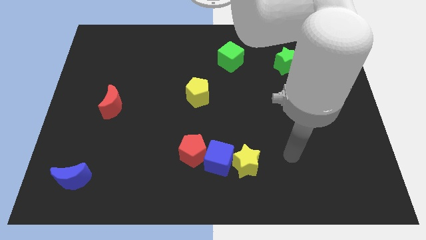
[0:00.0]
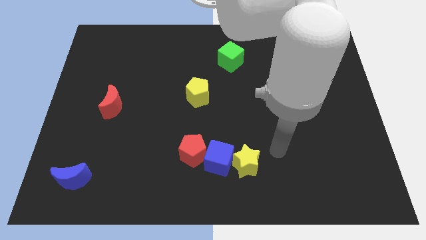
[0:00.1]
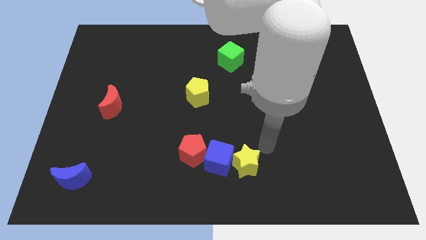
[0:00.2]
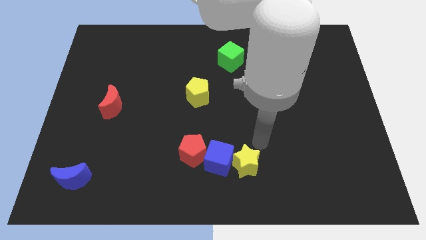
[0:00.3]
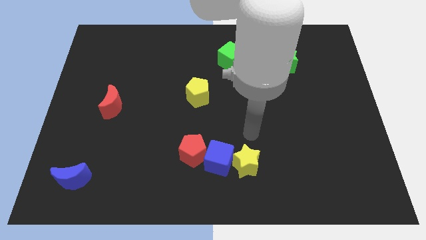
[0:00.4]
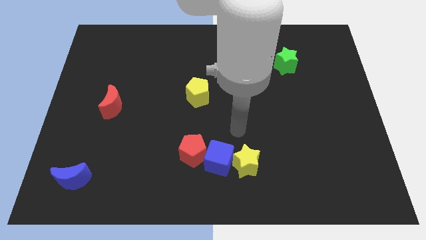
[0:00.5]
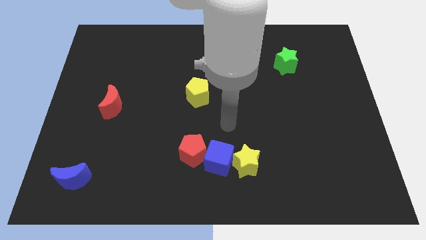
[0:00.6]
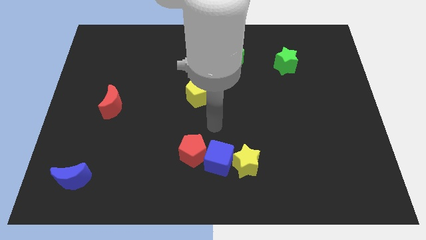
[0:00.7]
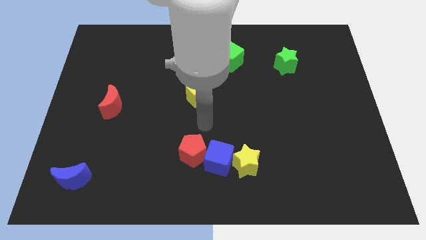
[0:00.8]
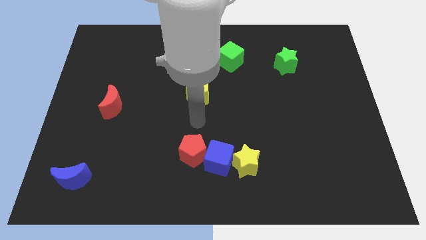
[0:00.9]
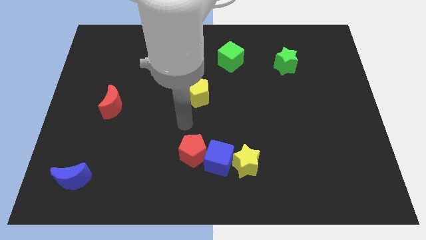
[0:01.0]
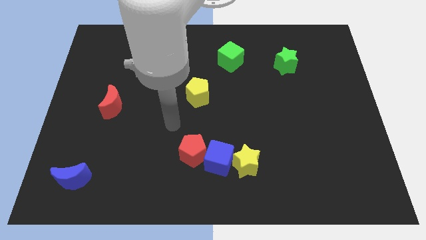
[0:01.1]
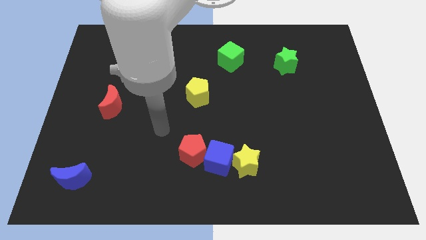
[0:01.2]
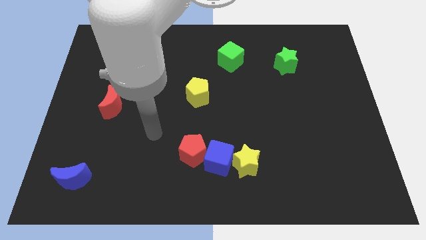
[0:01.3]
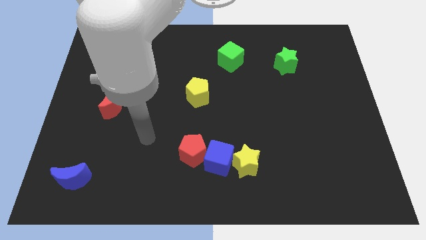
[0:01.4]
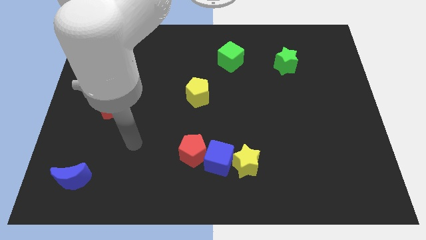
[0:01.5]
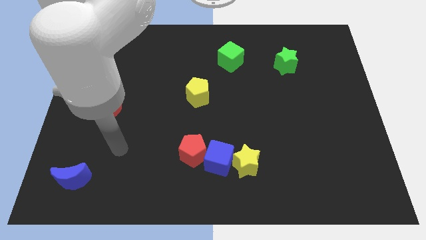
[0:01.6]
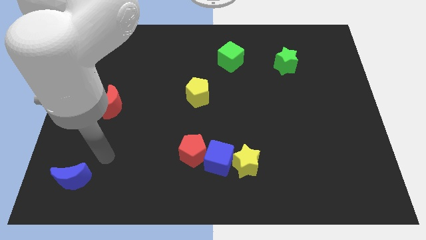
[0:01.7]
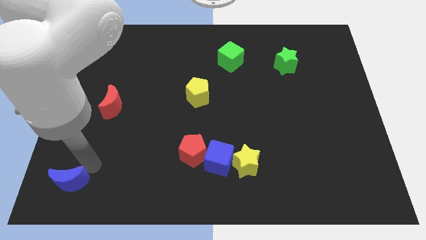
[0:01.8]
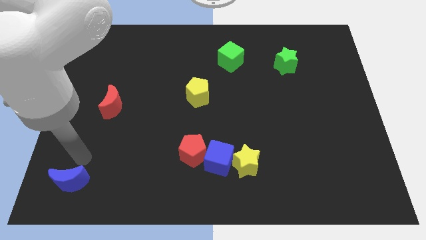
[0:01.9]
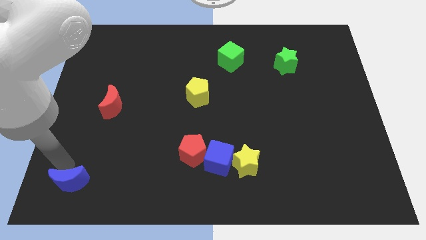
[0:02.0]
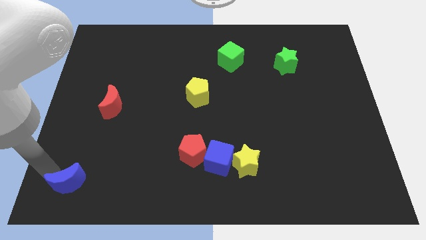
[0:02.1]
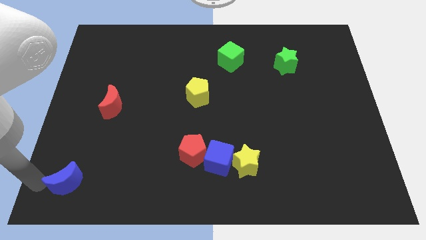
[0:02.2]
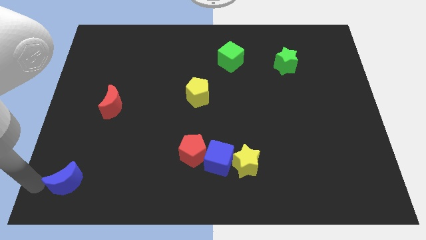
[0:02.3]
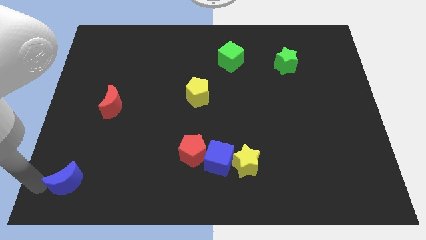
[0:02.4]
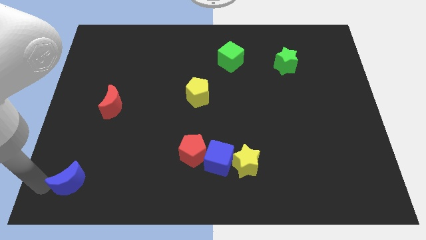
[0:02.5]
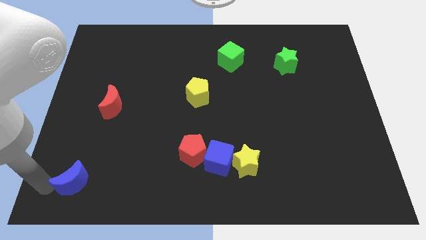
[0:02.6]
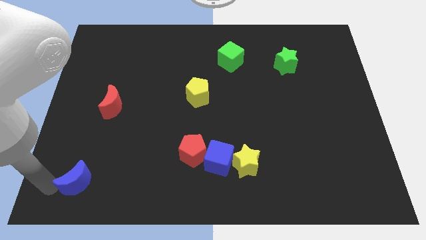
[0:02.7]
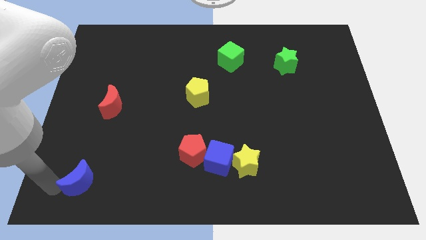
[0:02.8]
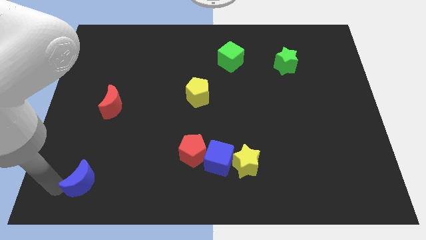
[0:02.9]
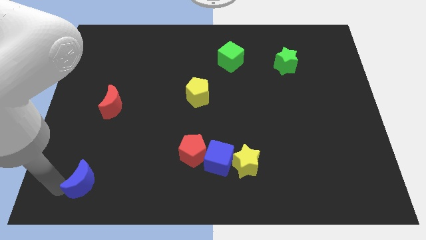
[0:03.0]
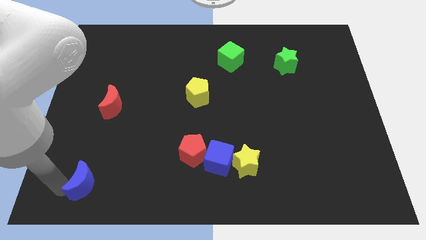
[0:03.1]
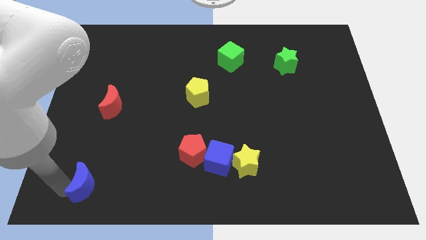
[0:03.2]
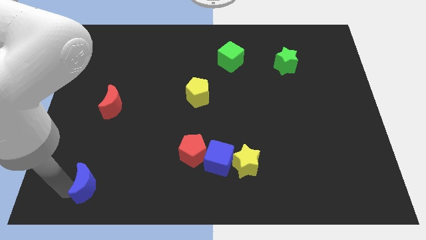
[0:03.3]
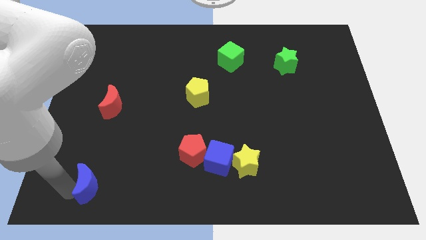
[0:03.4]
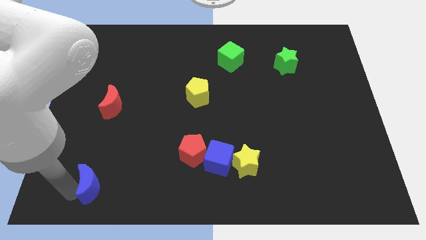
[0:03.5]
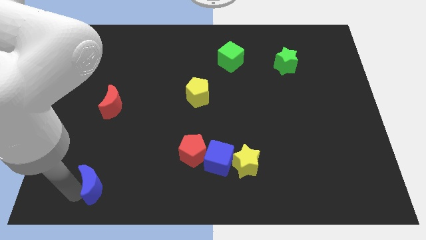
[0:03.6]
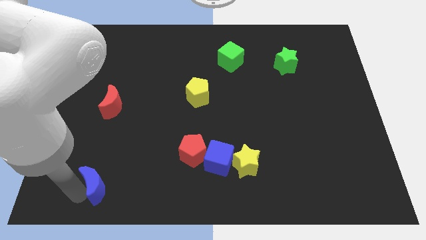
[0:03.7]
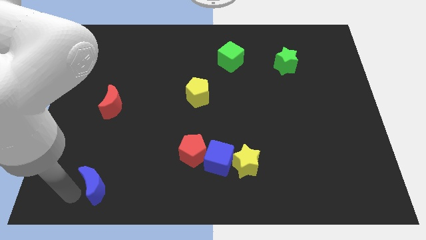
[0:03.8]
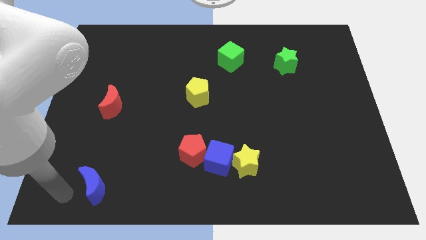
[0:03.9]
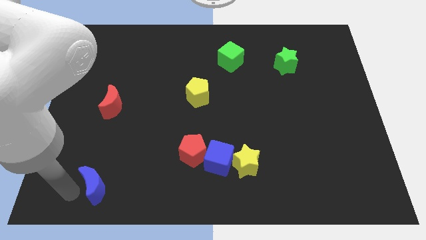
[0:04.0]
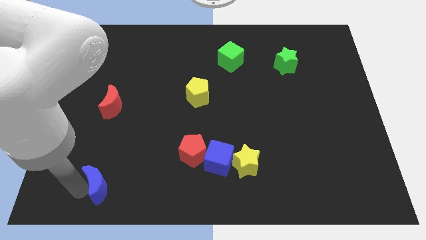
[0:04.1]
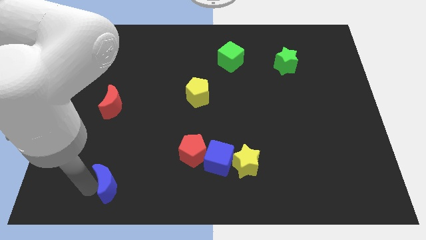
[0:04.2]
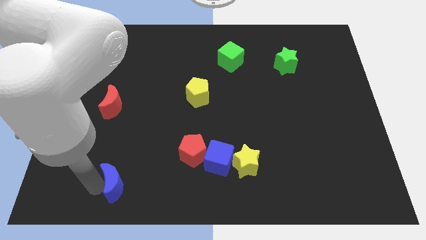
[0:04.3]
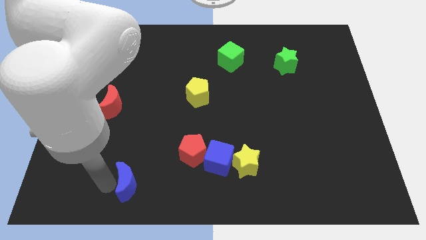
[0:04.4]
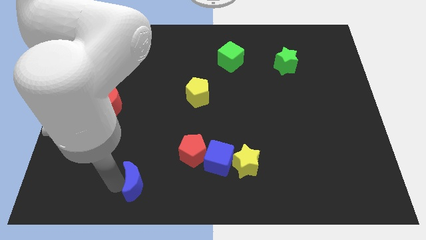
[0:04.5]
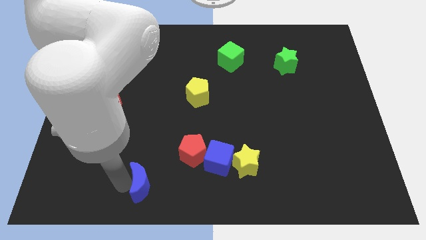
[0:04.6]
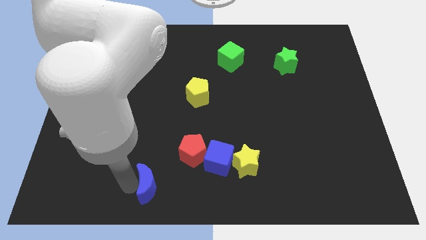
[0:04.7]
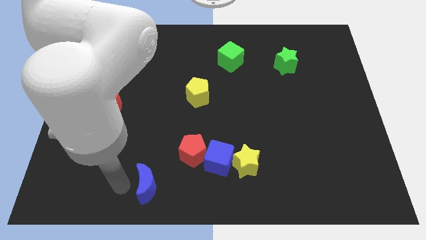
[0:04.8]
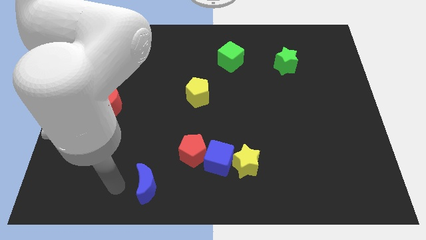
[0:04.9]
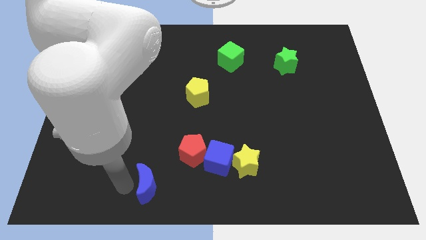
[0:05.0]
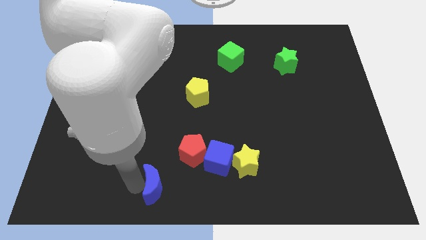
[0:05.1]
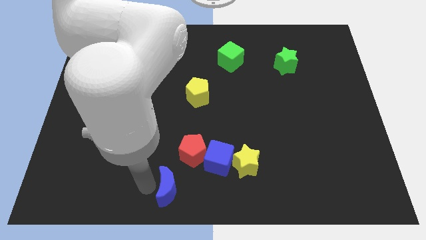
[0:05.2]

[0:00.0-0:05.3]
put the blue moon to the bottom left of the blue cube

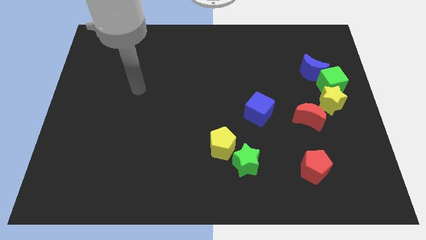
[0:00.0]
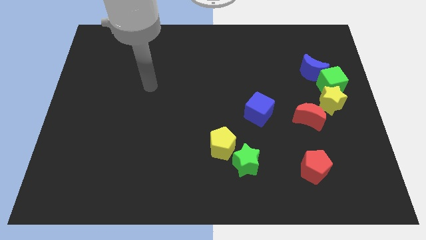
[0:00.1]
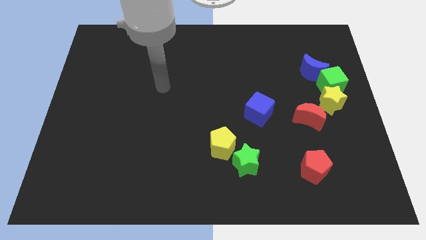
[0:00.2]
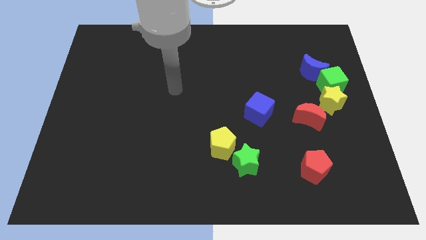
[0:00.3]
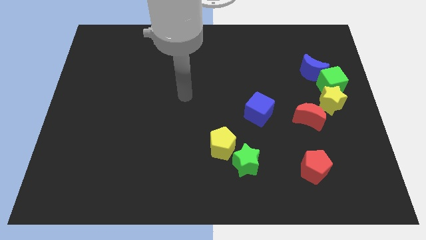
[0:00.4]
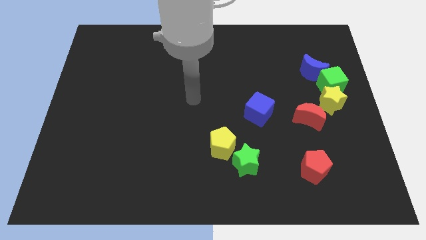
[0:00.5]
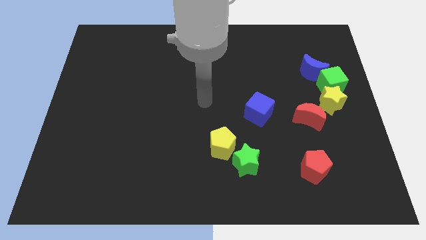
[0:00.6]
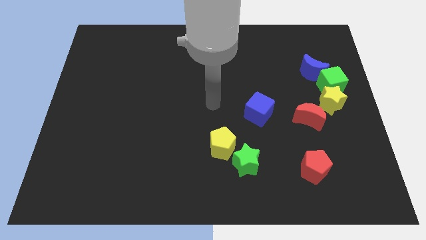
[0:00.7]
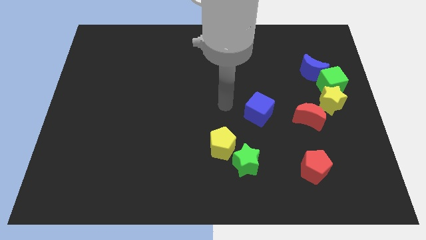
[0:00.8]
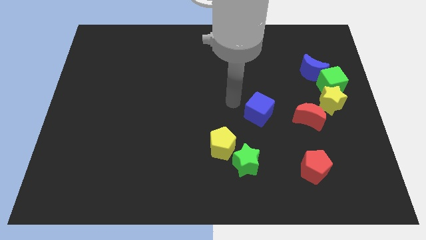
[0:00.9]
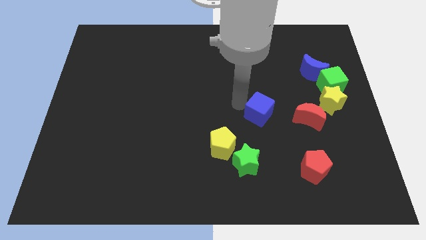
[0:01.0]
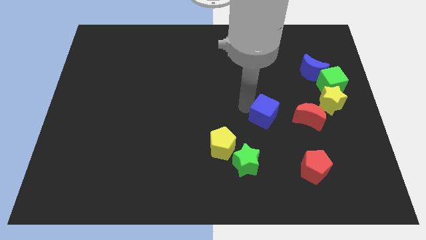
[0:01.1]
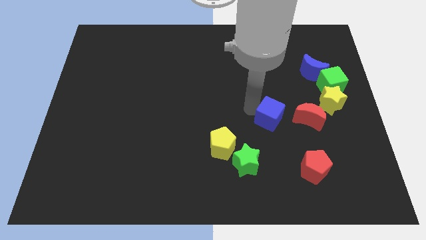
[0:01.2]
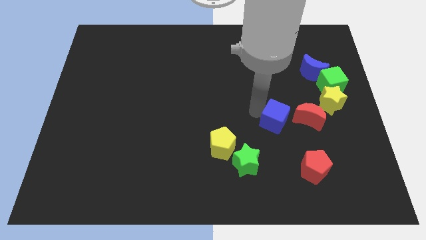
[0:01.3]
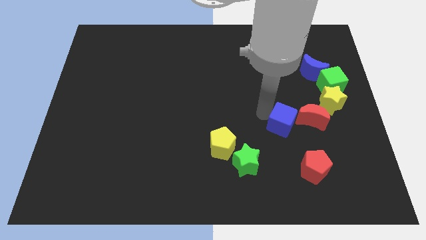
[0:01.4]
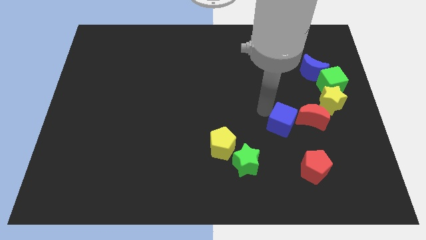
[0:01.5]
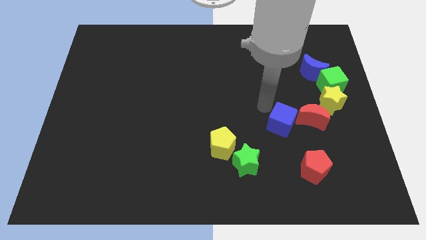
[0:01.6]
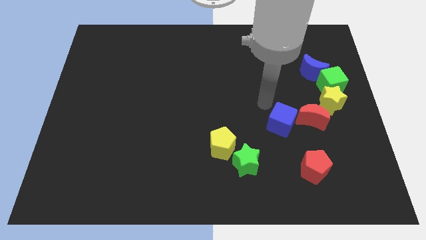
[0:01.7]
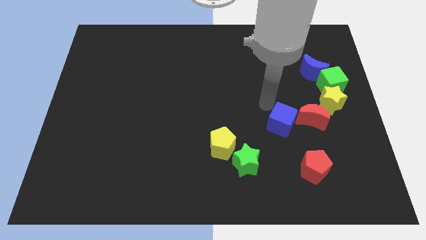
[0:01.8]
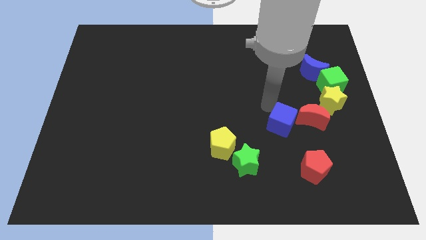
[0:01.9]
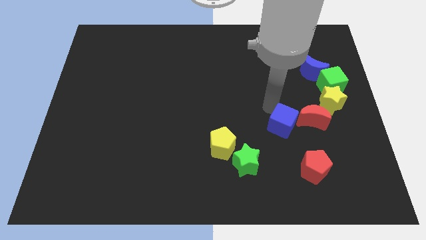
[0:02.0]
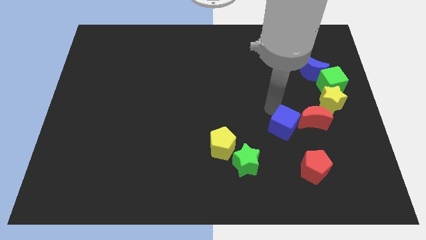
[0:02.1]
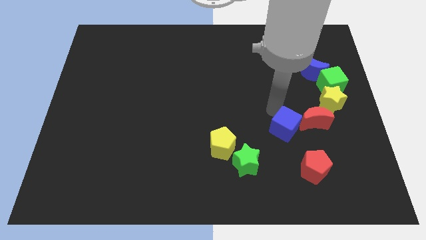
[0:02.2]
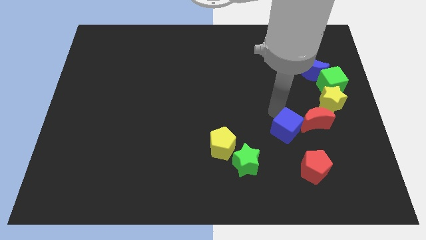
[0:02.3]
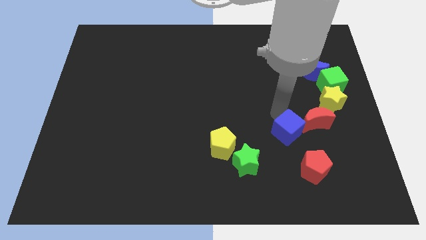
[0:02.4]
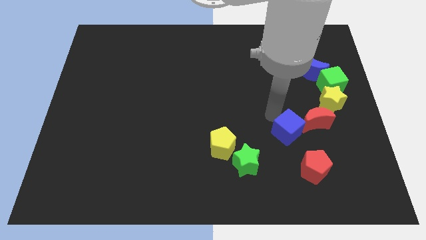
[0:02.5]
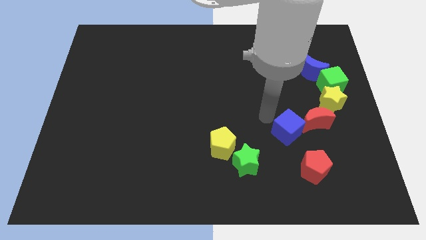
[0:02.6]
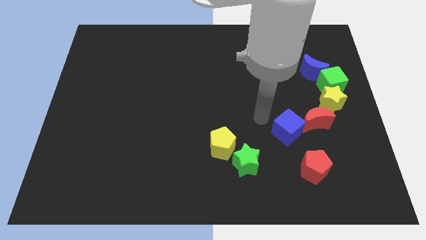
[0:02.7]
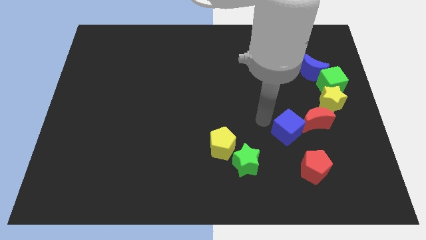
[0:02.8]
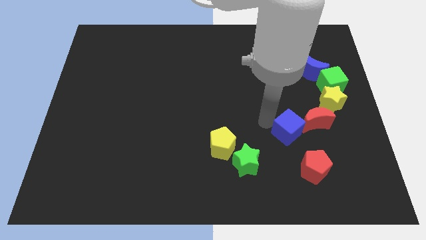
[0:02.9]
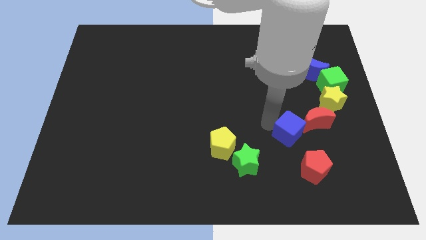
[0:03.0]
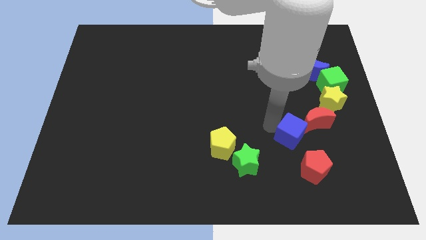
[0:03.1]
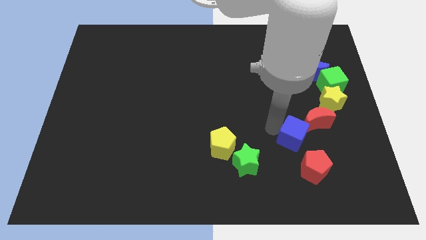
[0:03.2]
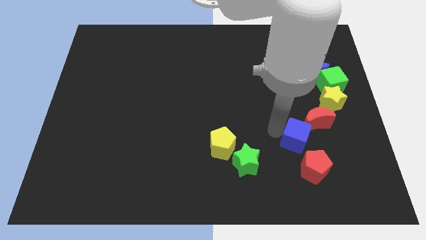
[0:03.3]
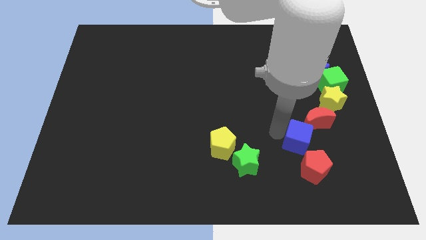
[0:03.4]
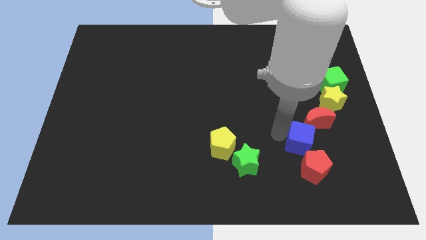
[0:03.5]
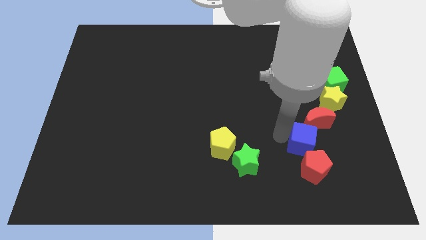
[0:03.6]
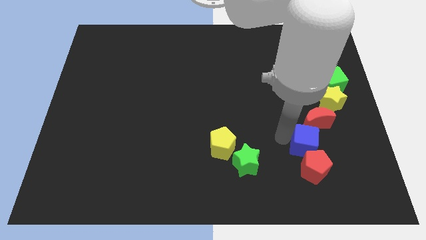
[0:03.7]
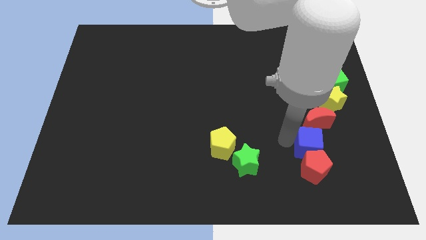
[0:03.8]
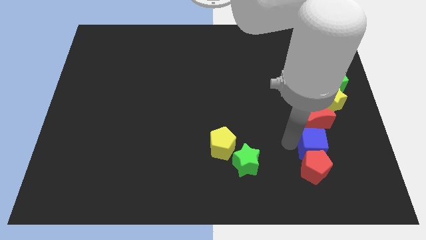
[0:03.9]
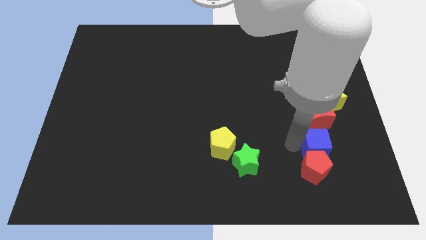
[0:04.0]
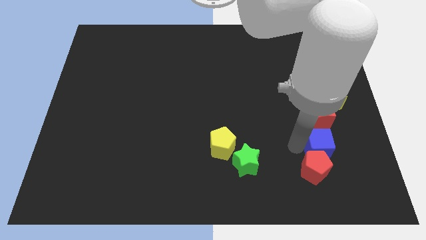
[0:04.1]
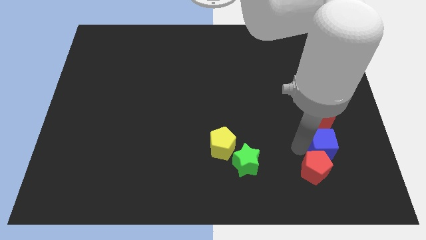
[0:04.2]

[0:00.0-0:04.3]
slide the blue cube to the bottom right side of the red moon
